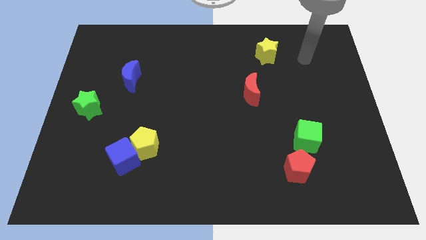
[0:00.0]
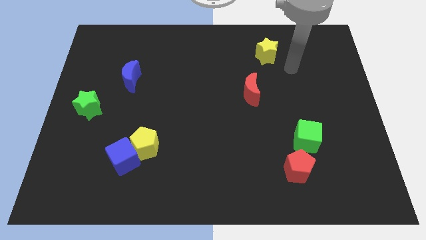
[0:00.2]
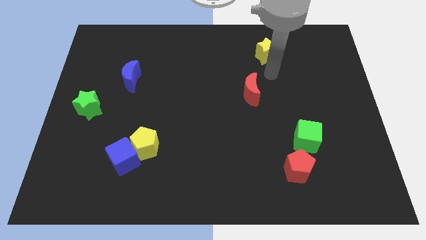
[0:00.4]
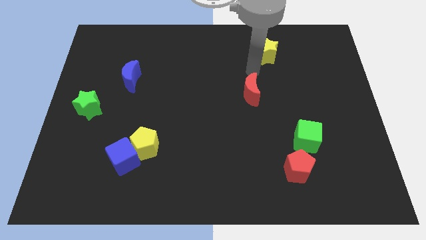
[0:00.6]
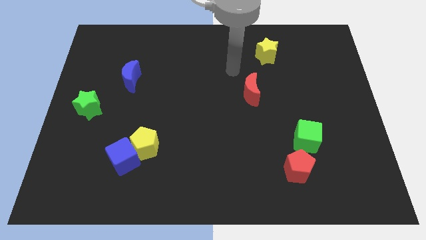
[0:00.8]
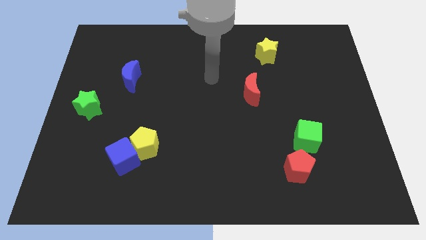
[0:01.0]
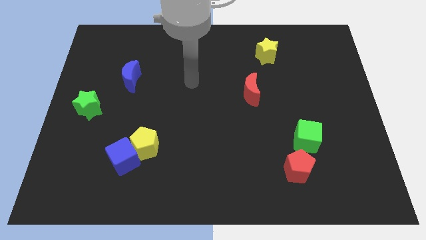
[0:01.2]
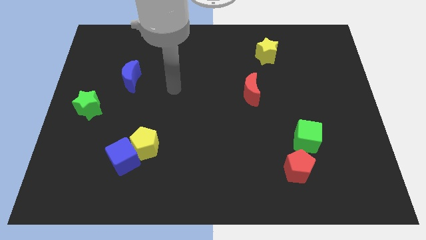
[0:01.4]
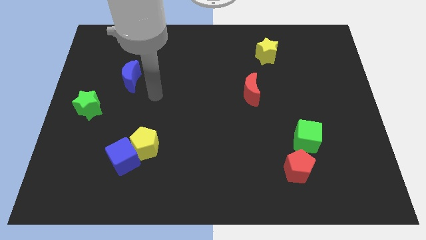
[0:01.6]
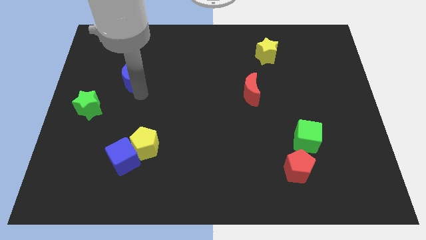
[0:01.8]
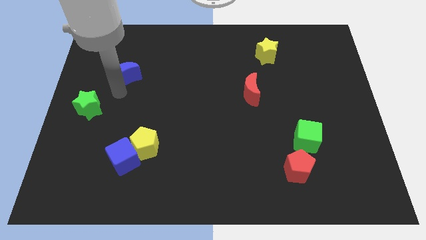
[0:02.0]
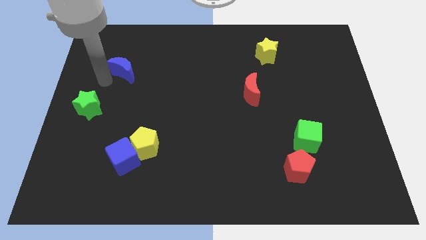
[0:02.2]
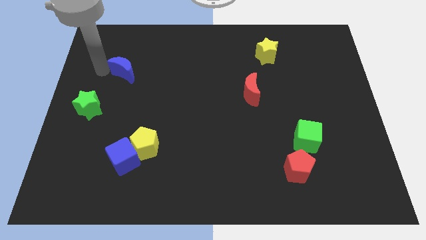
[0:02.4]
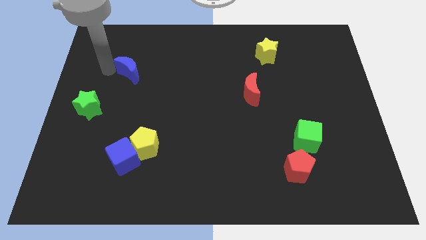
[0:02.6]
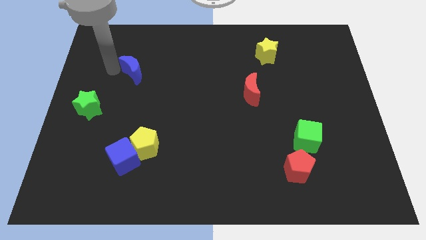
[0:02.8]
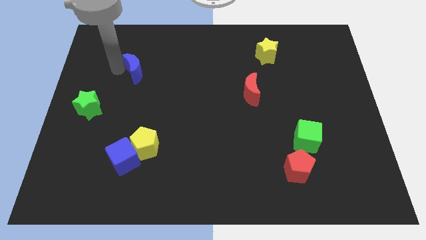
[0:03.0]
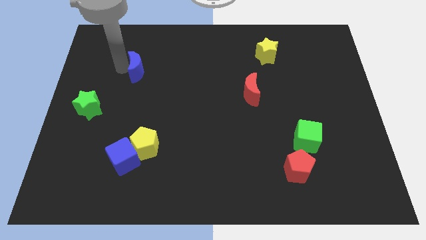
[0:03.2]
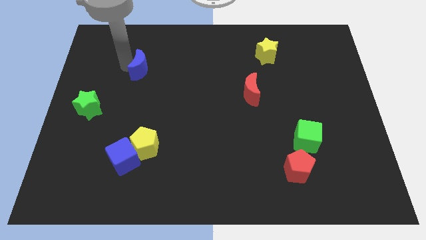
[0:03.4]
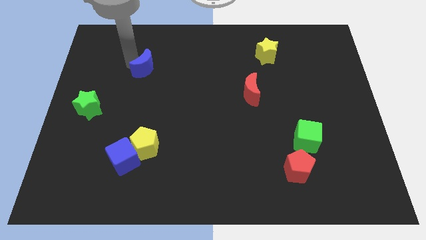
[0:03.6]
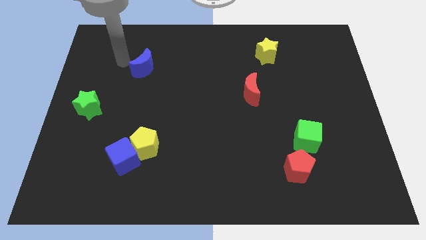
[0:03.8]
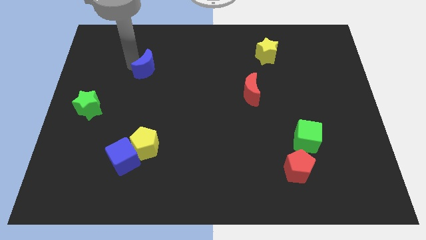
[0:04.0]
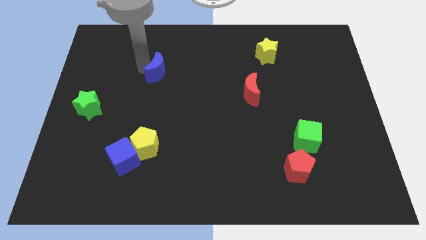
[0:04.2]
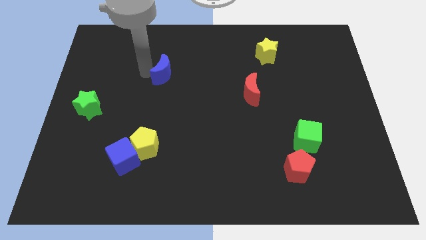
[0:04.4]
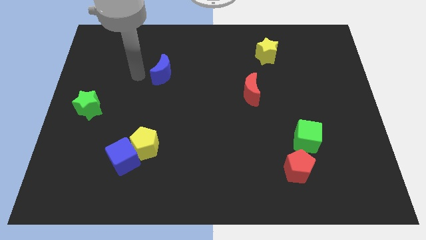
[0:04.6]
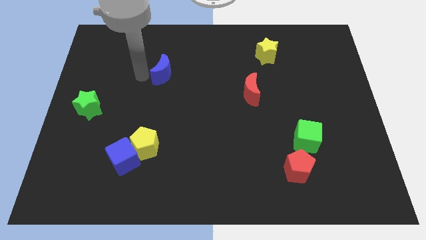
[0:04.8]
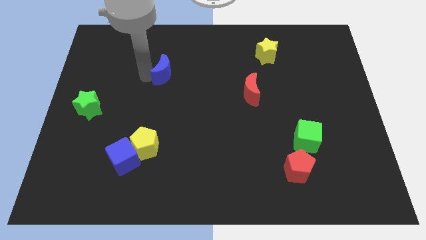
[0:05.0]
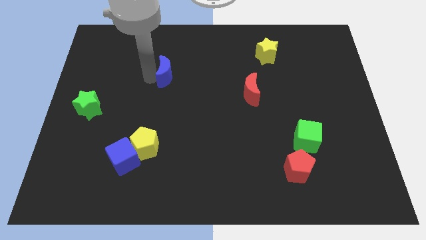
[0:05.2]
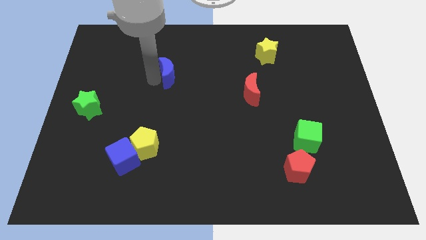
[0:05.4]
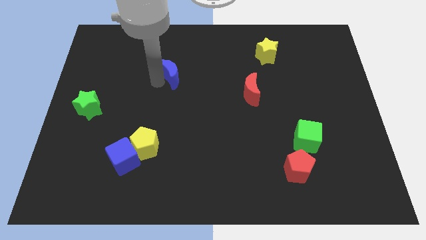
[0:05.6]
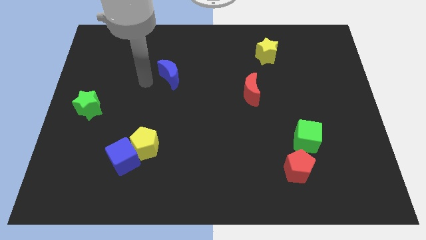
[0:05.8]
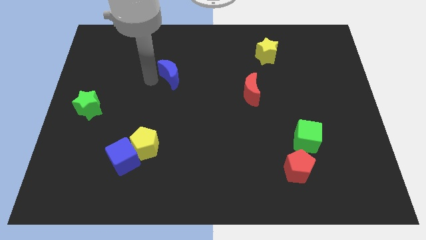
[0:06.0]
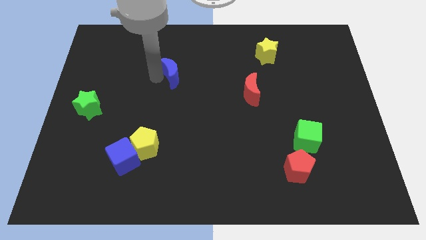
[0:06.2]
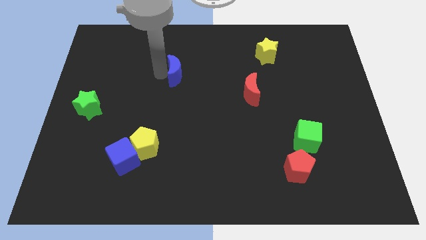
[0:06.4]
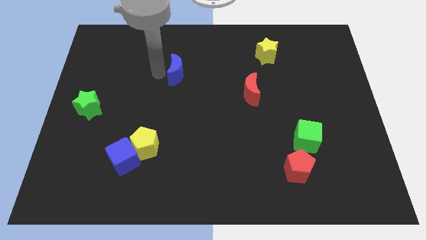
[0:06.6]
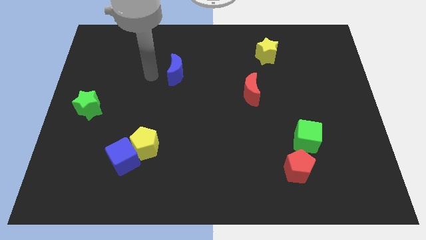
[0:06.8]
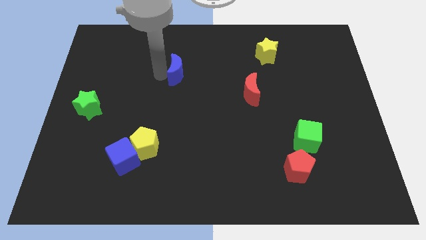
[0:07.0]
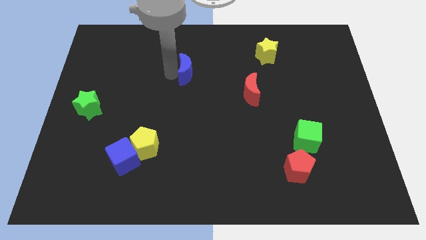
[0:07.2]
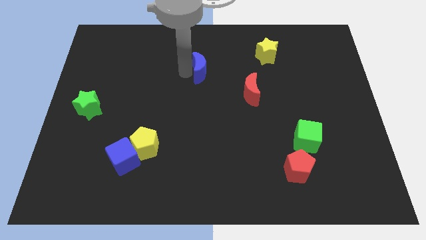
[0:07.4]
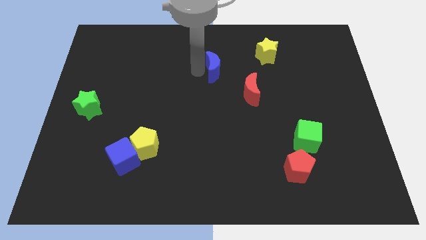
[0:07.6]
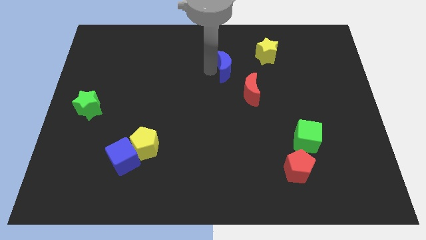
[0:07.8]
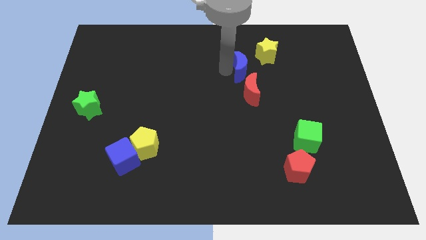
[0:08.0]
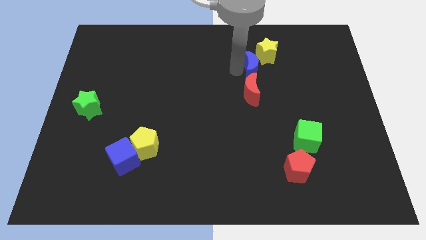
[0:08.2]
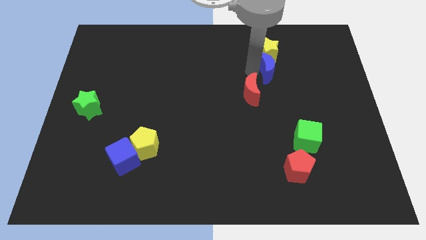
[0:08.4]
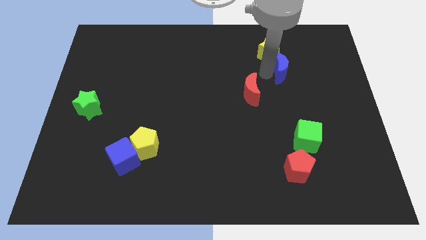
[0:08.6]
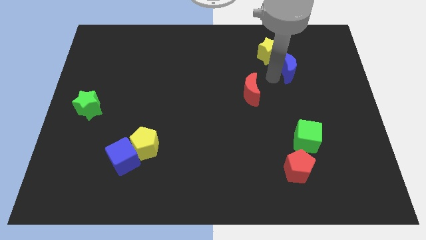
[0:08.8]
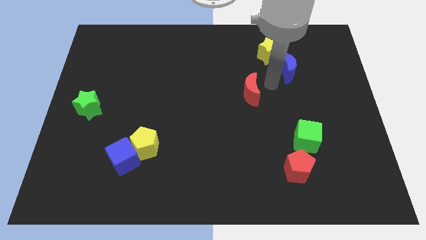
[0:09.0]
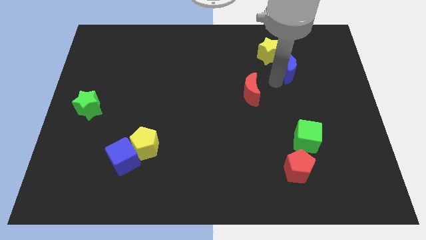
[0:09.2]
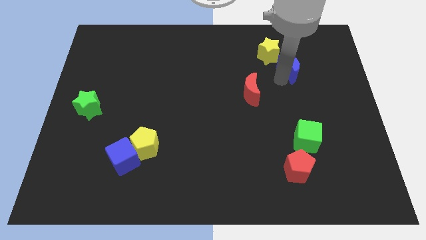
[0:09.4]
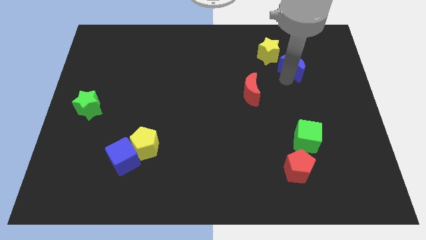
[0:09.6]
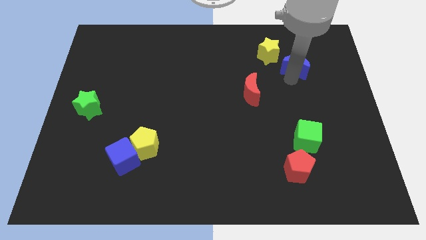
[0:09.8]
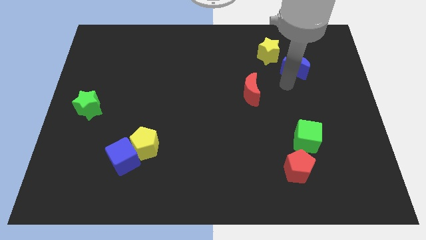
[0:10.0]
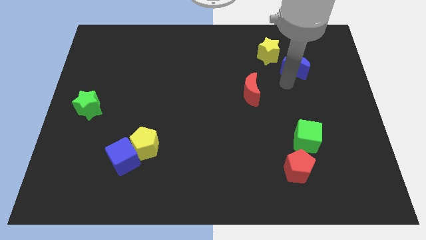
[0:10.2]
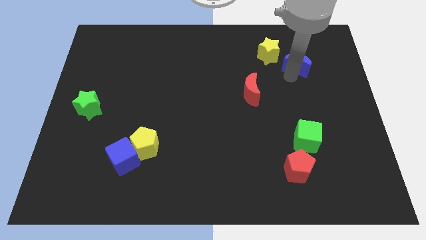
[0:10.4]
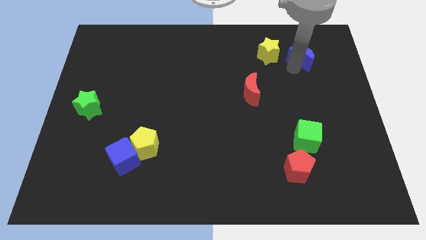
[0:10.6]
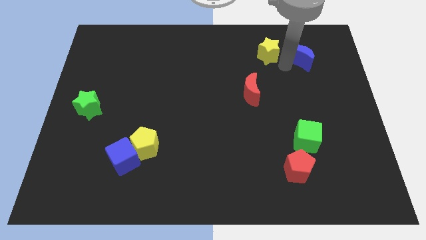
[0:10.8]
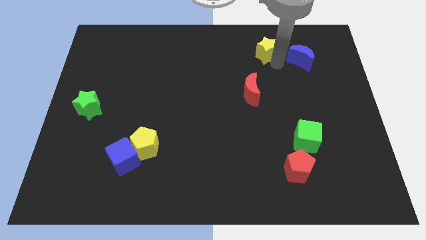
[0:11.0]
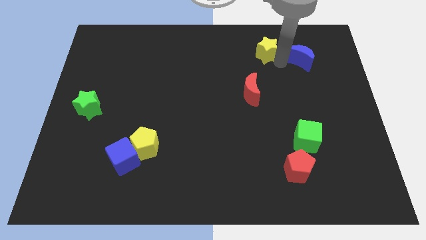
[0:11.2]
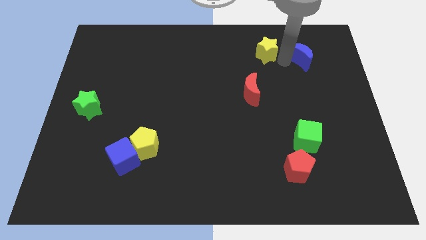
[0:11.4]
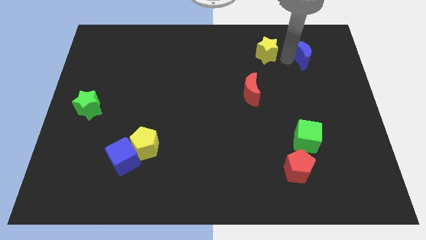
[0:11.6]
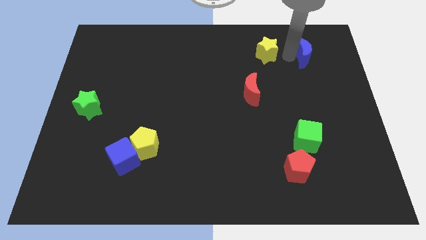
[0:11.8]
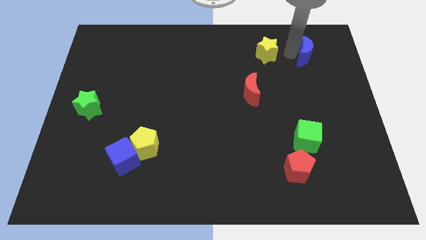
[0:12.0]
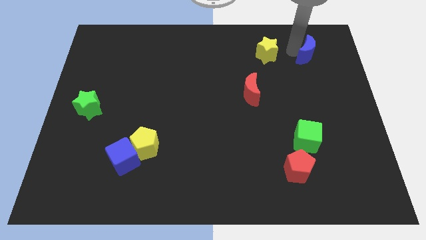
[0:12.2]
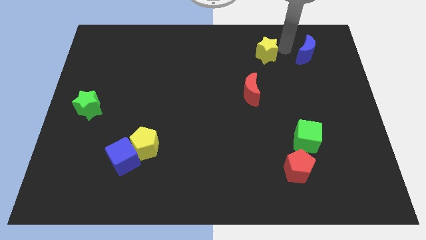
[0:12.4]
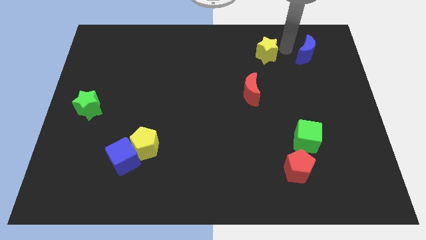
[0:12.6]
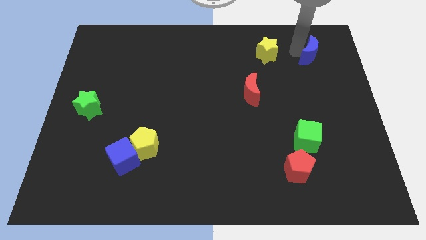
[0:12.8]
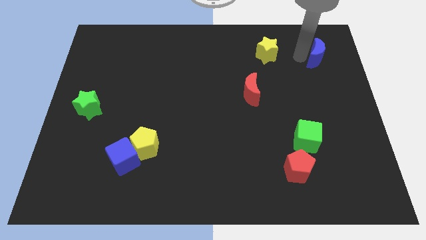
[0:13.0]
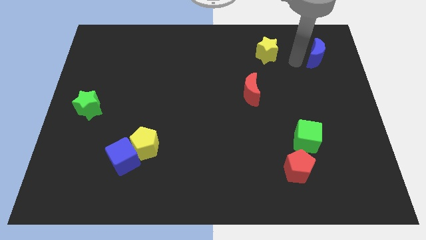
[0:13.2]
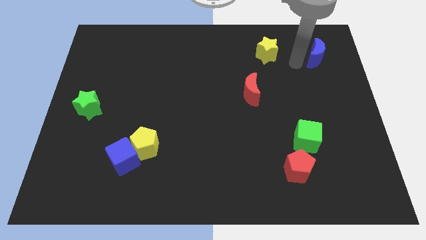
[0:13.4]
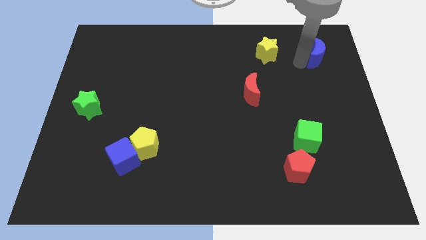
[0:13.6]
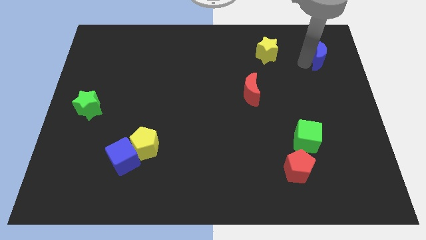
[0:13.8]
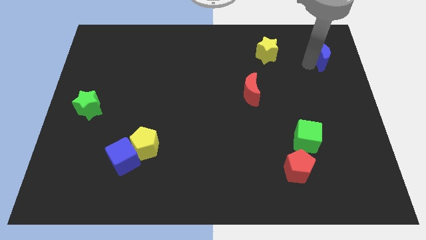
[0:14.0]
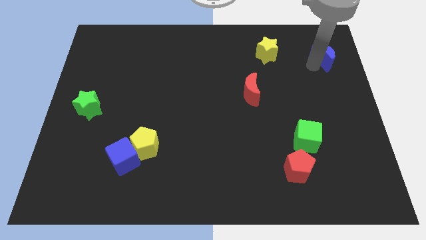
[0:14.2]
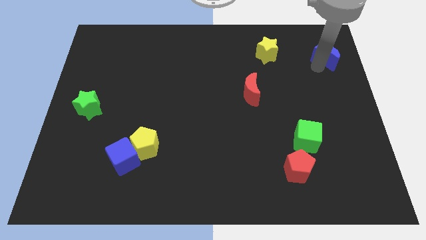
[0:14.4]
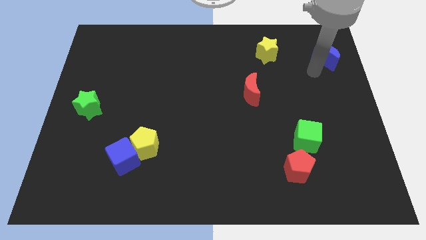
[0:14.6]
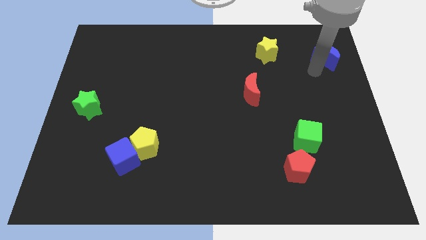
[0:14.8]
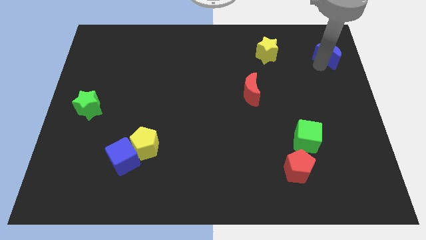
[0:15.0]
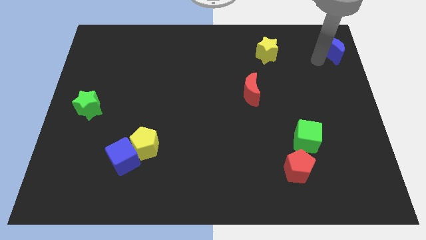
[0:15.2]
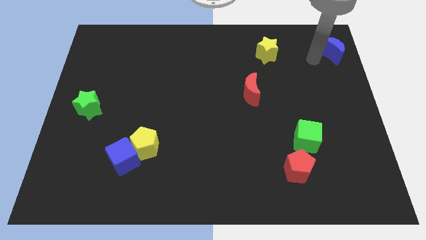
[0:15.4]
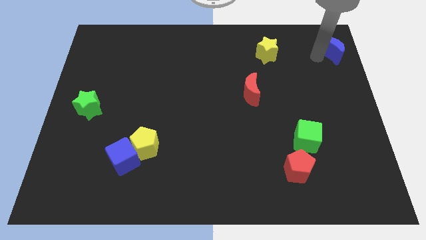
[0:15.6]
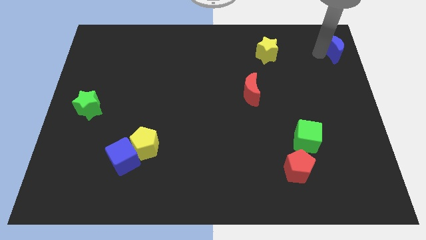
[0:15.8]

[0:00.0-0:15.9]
put the blue moon to the top right corner
